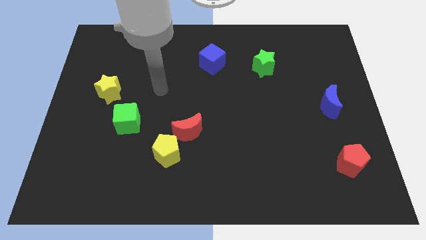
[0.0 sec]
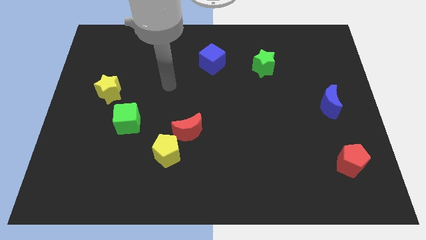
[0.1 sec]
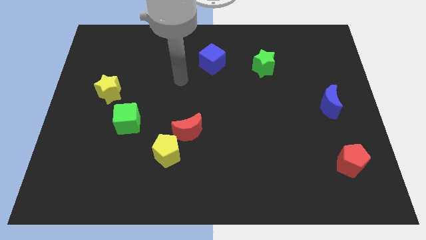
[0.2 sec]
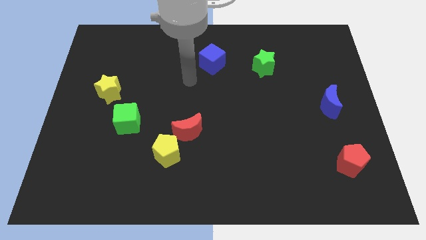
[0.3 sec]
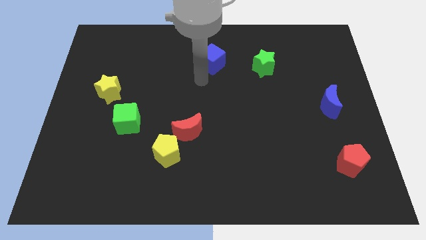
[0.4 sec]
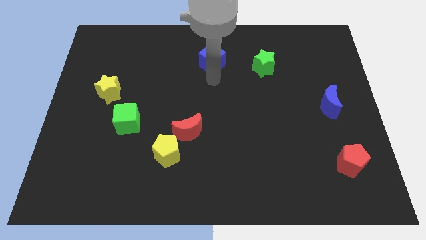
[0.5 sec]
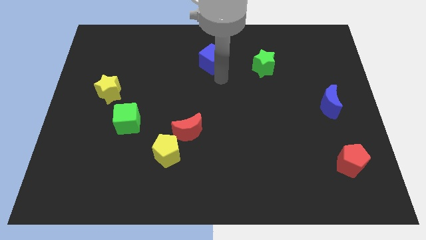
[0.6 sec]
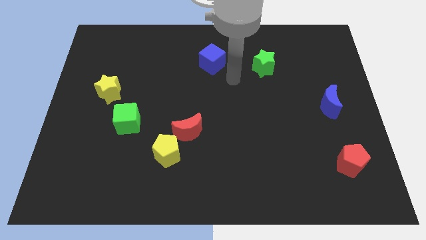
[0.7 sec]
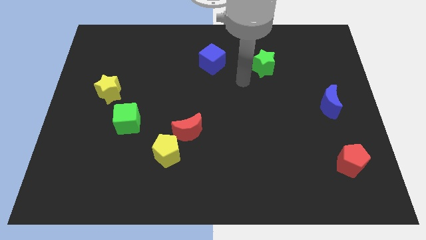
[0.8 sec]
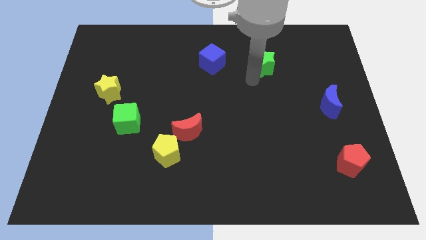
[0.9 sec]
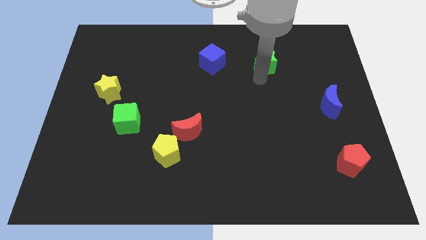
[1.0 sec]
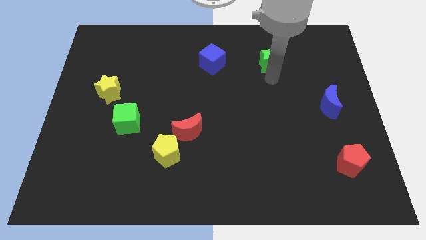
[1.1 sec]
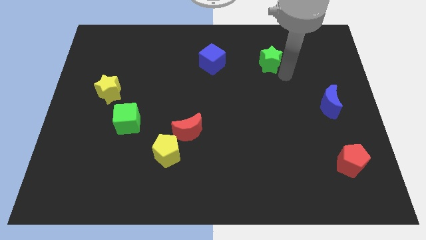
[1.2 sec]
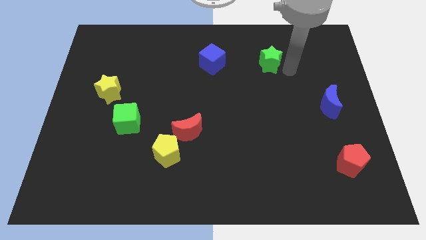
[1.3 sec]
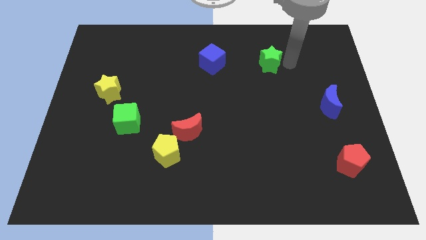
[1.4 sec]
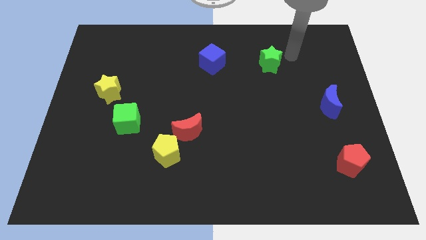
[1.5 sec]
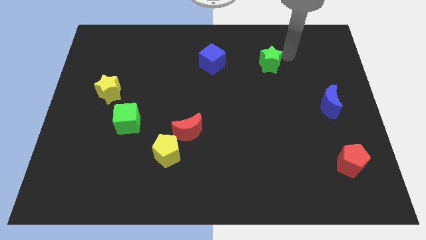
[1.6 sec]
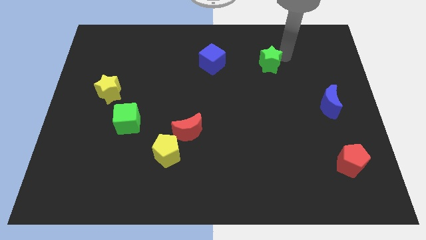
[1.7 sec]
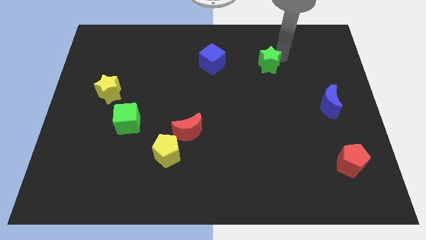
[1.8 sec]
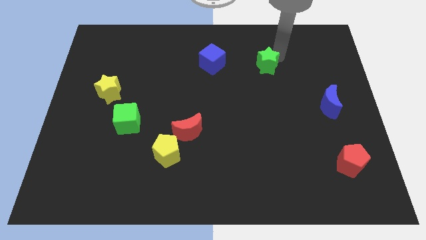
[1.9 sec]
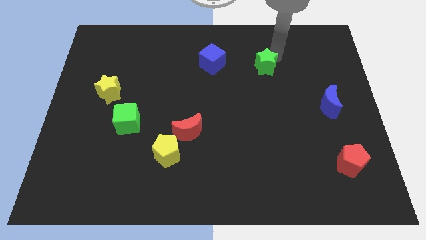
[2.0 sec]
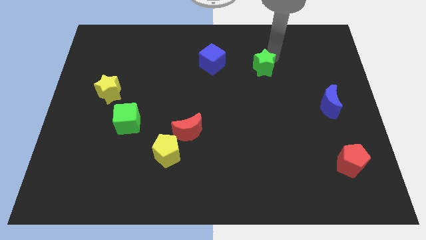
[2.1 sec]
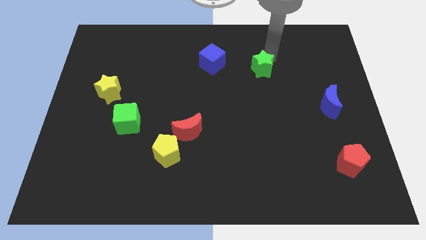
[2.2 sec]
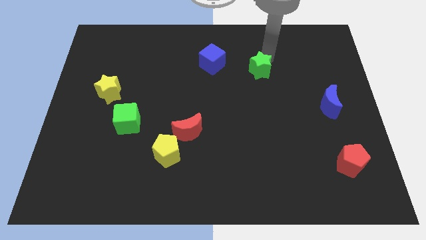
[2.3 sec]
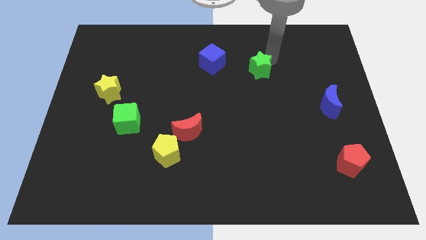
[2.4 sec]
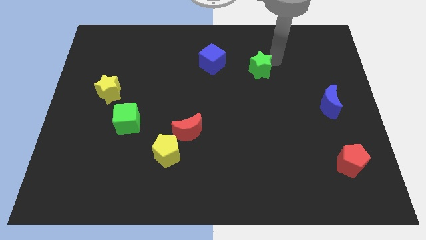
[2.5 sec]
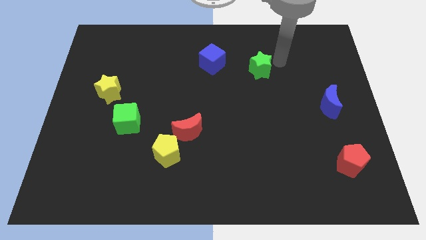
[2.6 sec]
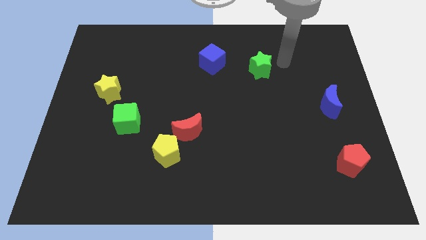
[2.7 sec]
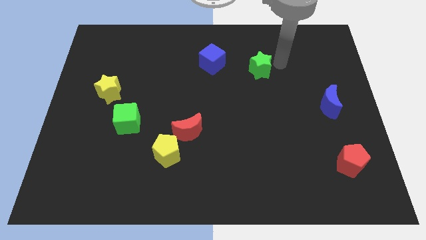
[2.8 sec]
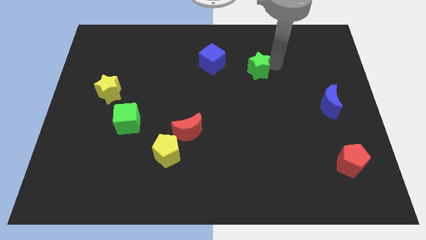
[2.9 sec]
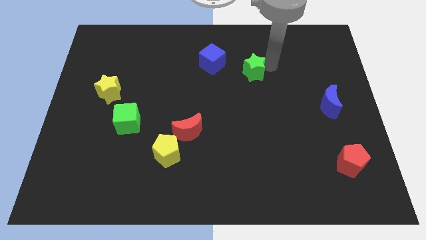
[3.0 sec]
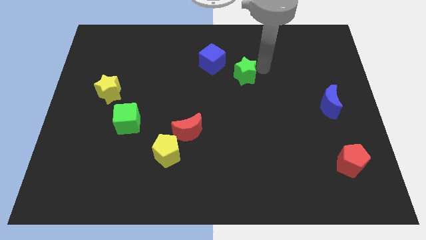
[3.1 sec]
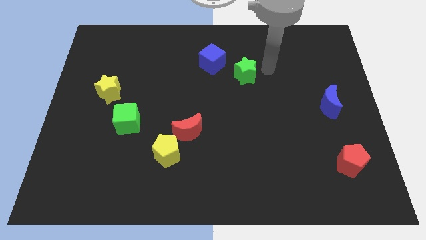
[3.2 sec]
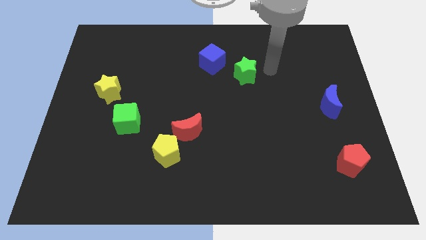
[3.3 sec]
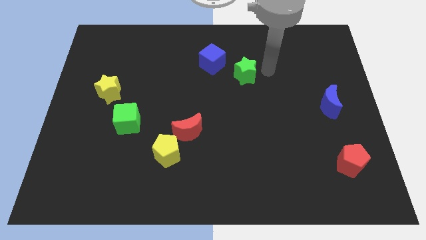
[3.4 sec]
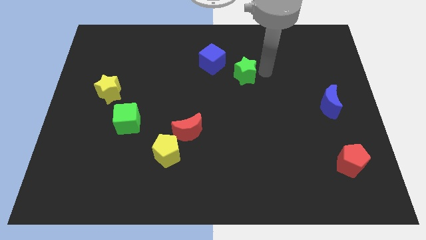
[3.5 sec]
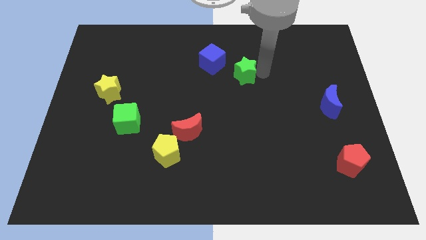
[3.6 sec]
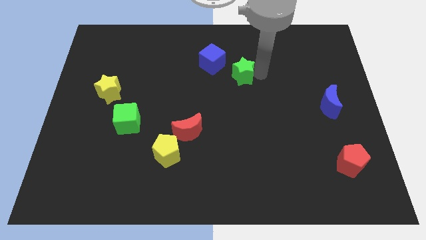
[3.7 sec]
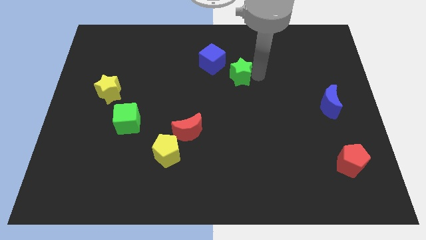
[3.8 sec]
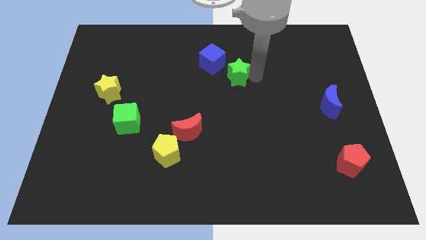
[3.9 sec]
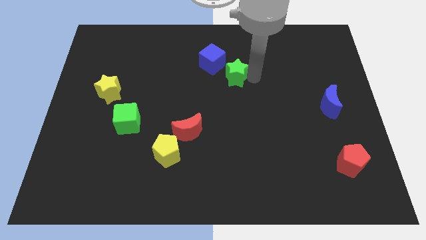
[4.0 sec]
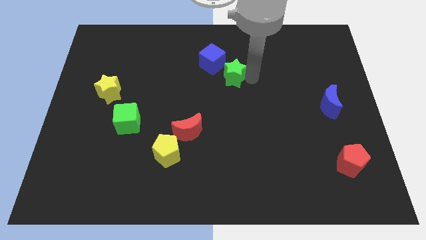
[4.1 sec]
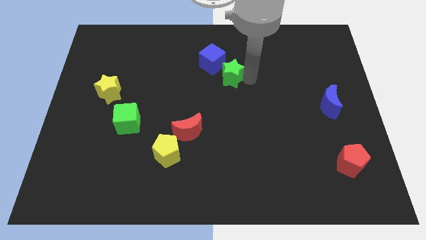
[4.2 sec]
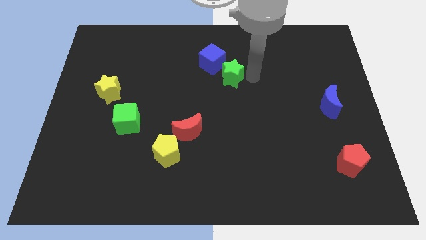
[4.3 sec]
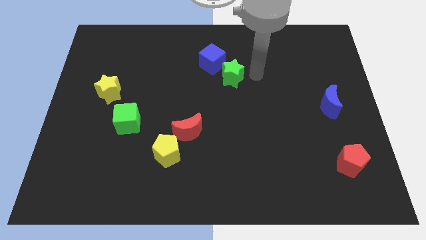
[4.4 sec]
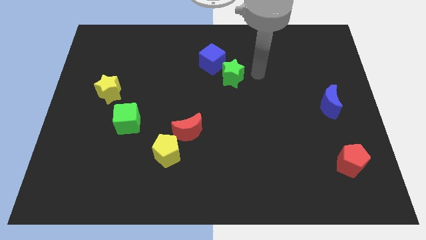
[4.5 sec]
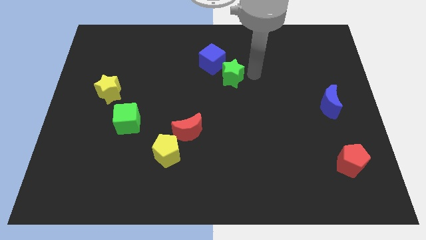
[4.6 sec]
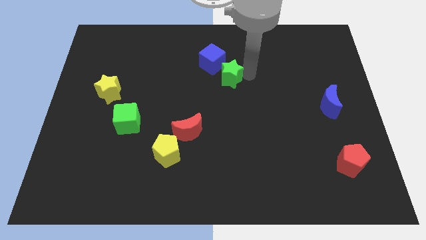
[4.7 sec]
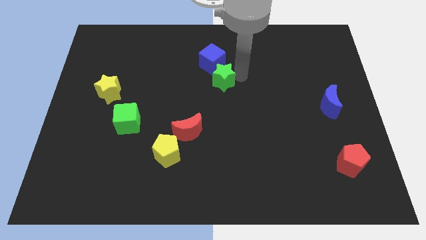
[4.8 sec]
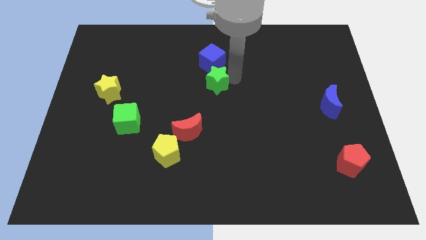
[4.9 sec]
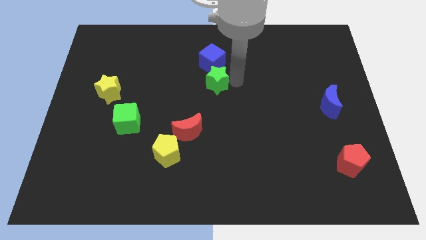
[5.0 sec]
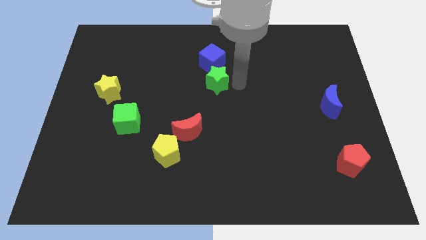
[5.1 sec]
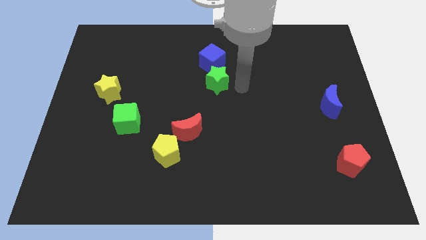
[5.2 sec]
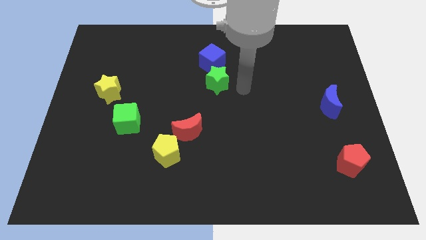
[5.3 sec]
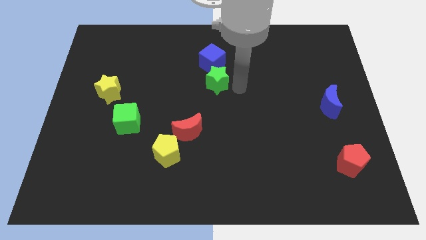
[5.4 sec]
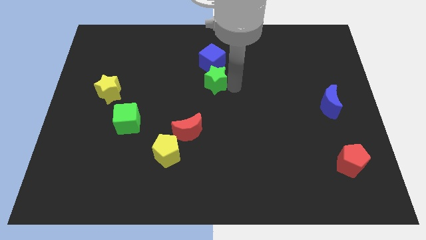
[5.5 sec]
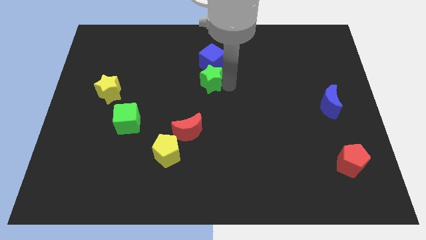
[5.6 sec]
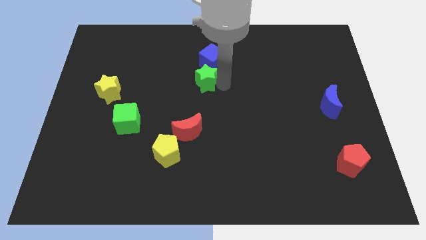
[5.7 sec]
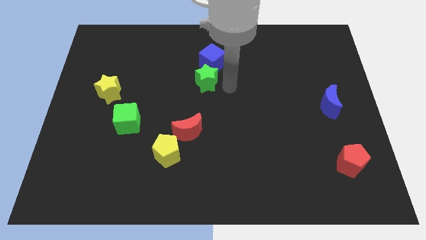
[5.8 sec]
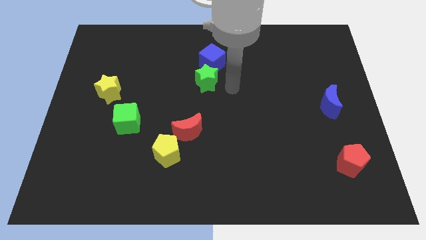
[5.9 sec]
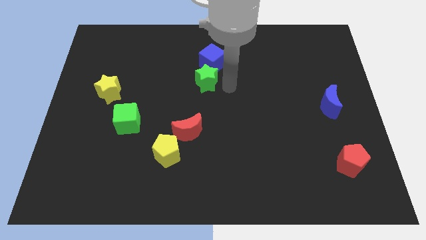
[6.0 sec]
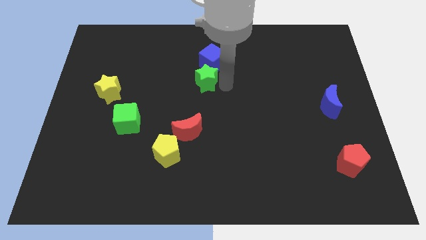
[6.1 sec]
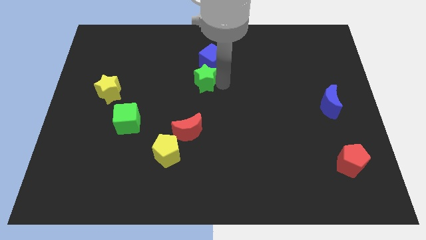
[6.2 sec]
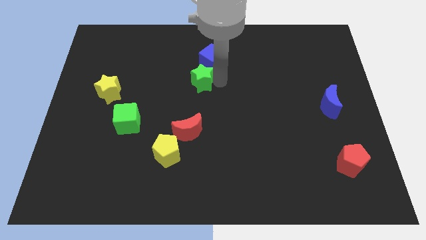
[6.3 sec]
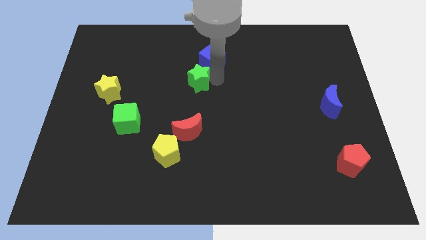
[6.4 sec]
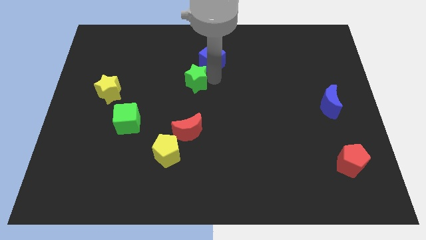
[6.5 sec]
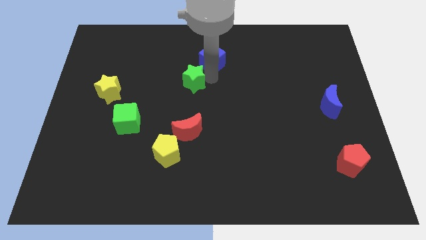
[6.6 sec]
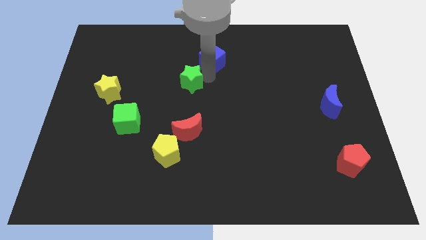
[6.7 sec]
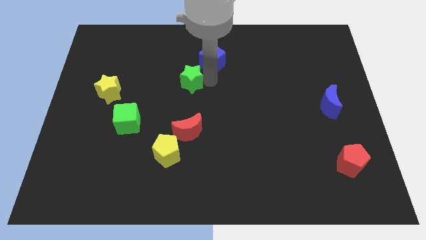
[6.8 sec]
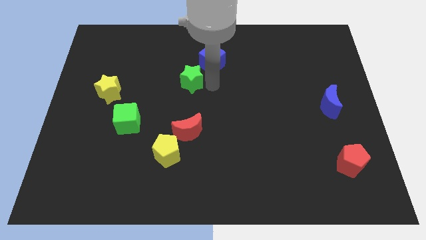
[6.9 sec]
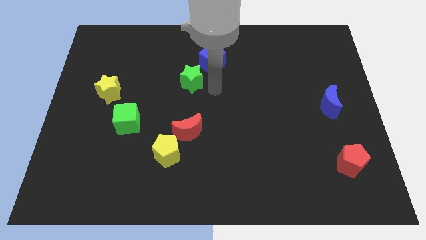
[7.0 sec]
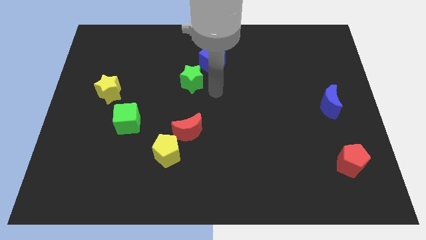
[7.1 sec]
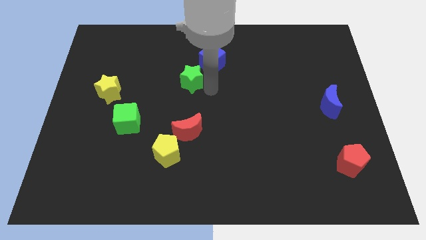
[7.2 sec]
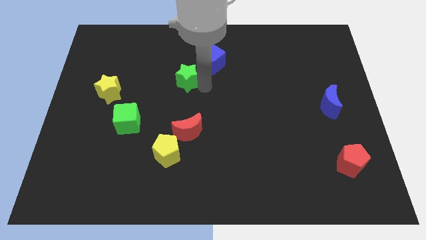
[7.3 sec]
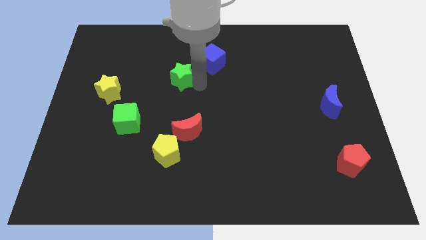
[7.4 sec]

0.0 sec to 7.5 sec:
push the green star to the left

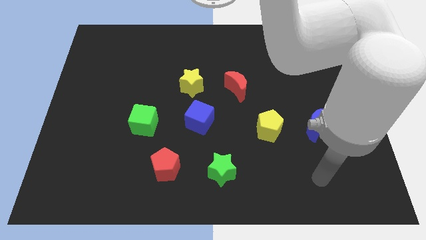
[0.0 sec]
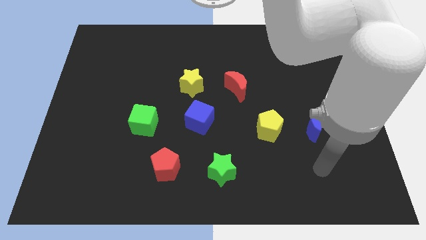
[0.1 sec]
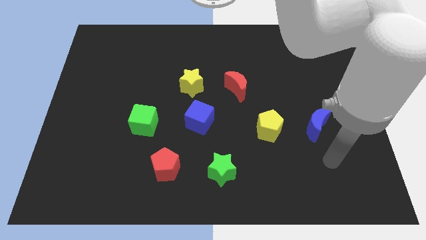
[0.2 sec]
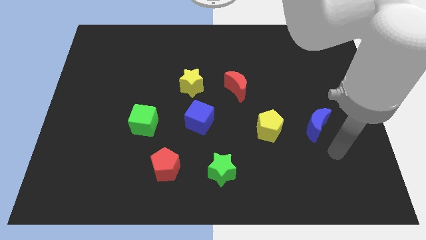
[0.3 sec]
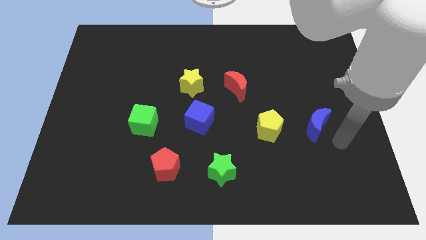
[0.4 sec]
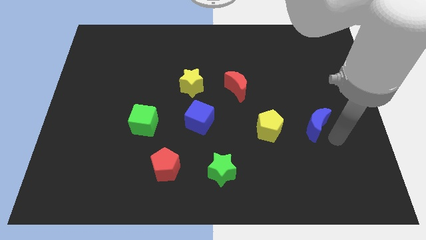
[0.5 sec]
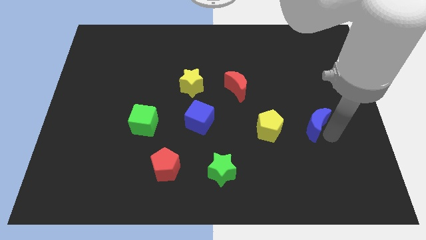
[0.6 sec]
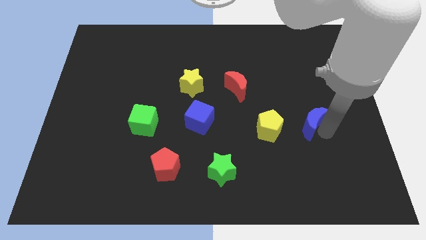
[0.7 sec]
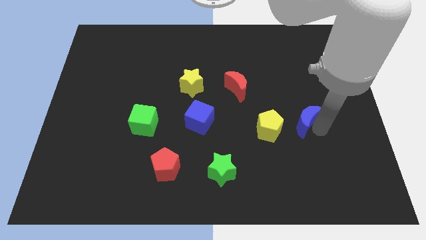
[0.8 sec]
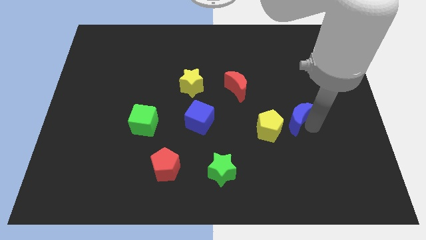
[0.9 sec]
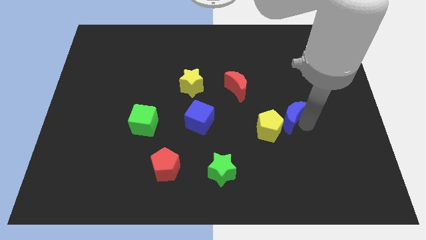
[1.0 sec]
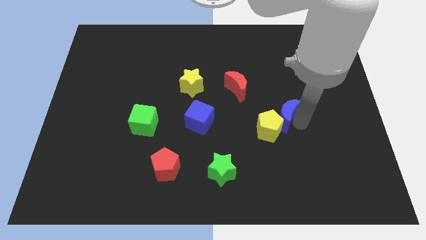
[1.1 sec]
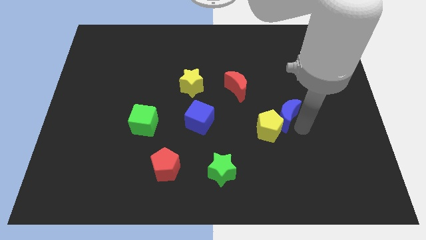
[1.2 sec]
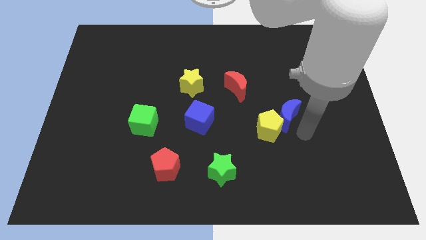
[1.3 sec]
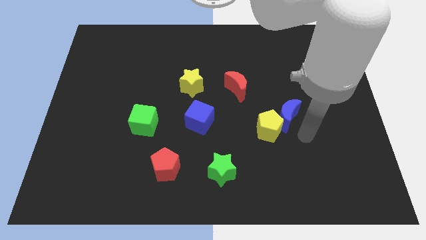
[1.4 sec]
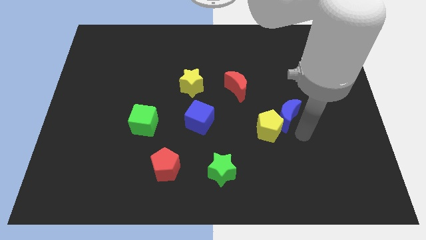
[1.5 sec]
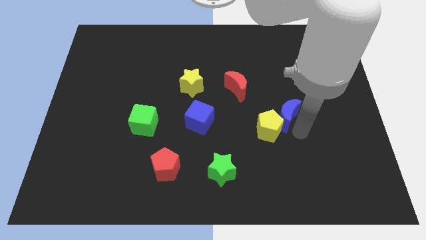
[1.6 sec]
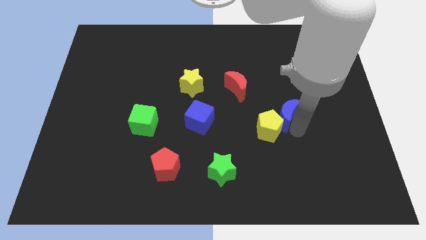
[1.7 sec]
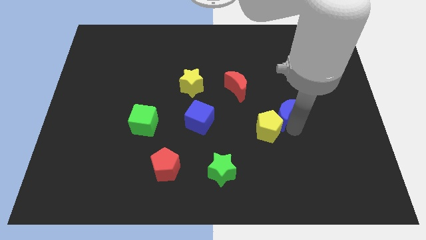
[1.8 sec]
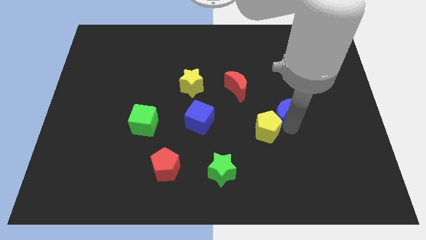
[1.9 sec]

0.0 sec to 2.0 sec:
slide the blue moon a bit upwards and to the left diagonally
